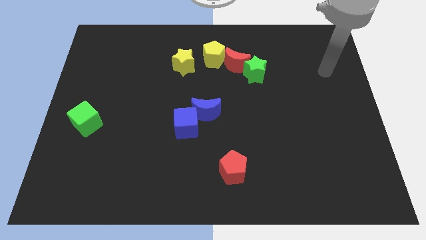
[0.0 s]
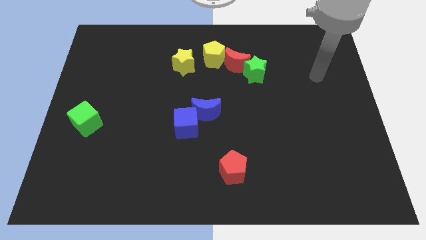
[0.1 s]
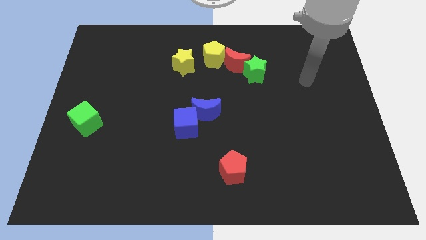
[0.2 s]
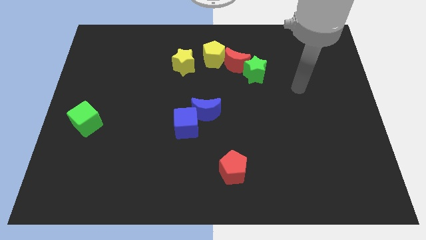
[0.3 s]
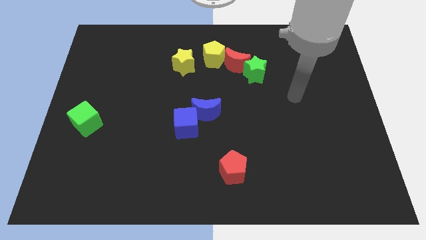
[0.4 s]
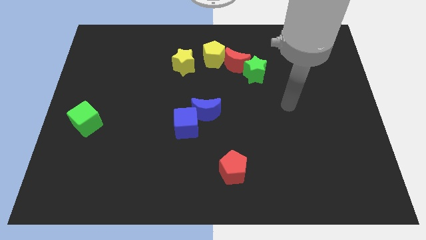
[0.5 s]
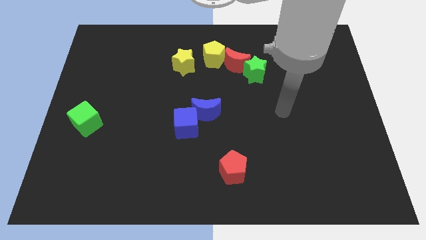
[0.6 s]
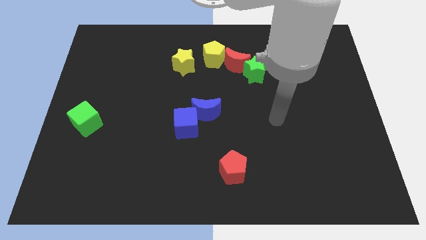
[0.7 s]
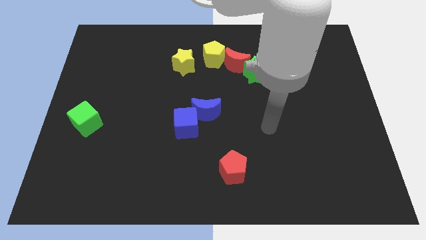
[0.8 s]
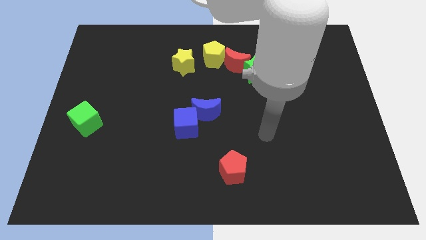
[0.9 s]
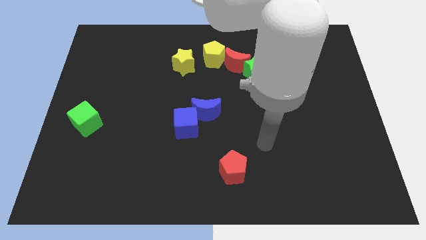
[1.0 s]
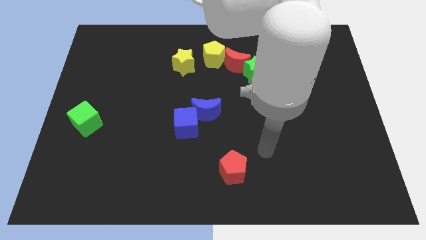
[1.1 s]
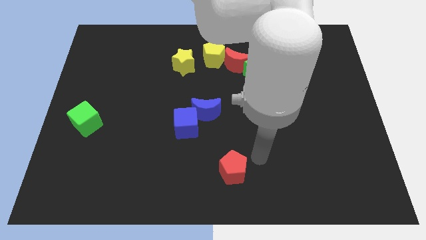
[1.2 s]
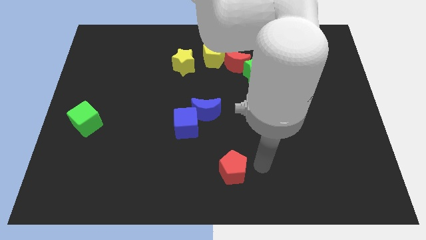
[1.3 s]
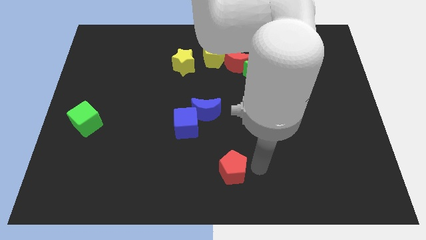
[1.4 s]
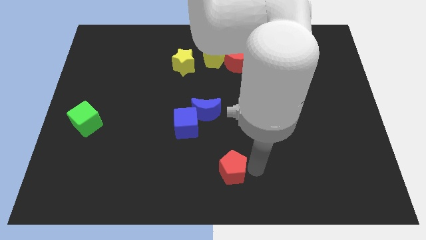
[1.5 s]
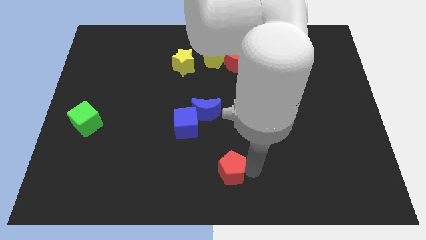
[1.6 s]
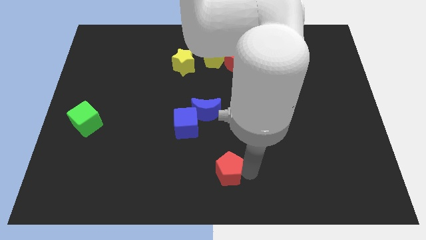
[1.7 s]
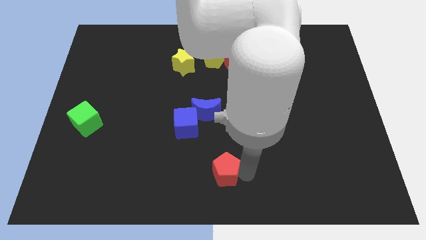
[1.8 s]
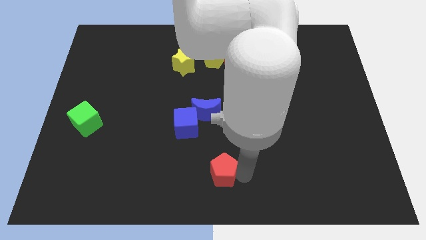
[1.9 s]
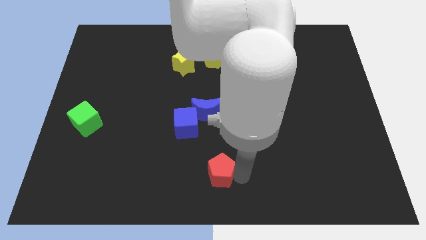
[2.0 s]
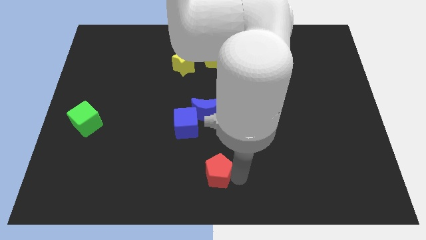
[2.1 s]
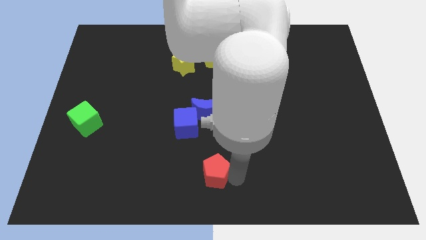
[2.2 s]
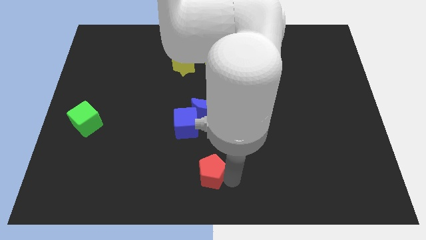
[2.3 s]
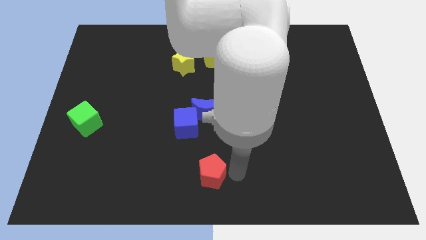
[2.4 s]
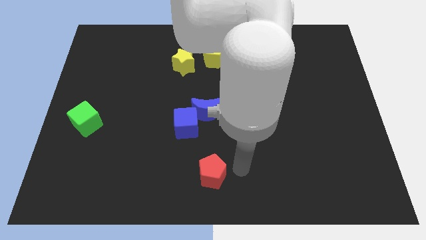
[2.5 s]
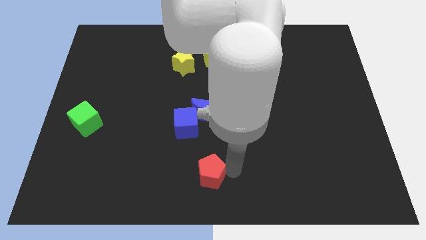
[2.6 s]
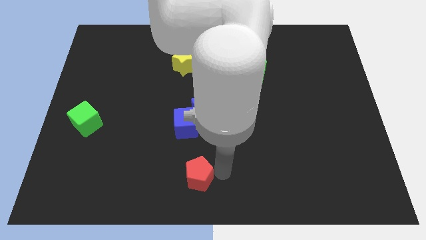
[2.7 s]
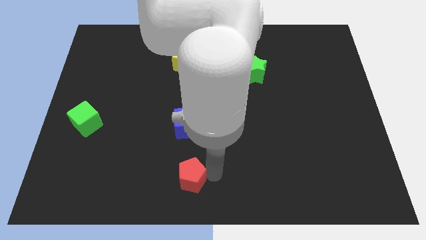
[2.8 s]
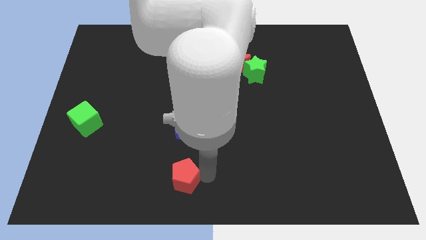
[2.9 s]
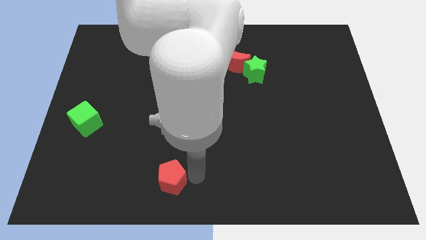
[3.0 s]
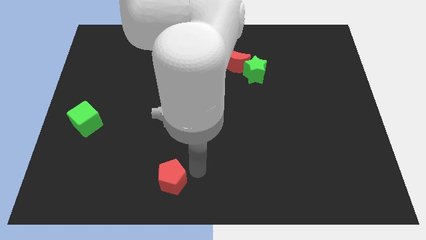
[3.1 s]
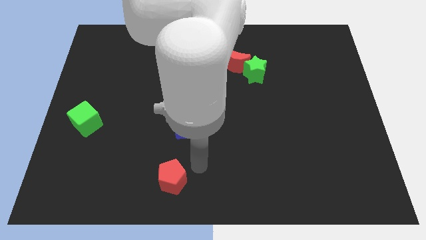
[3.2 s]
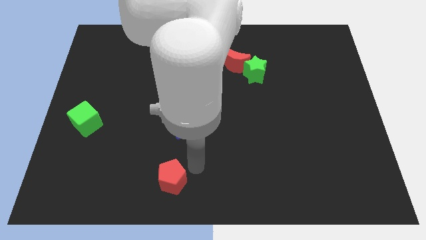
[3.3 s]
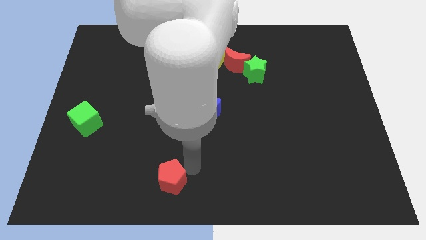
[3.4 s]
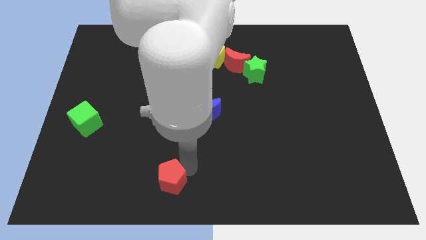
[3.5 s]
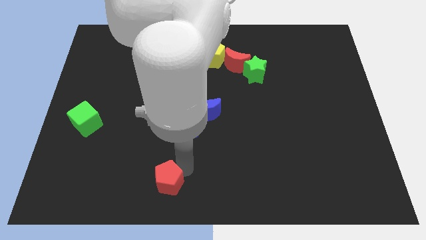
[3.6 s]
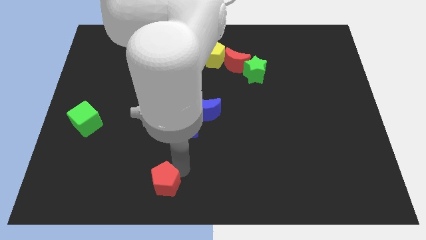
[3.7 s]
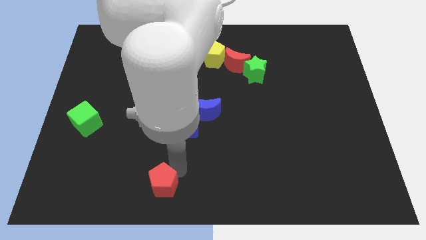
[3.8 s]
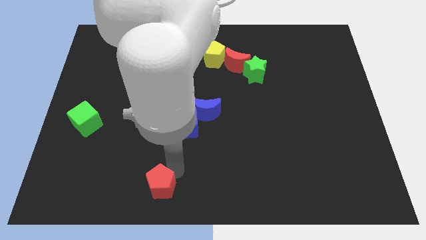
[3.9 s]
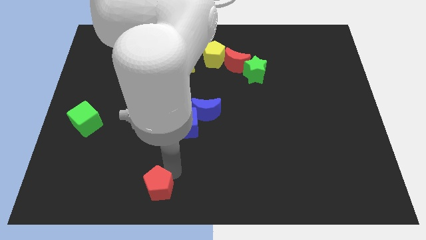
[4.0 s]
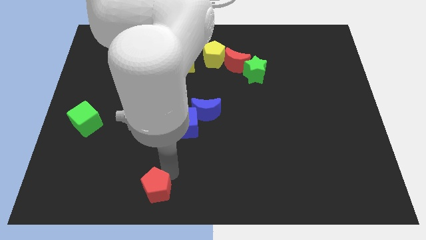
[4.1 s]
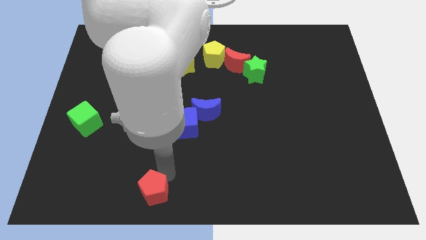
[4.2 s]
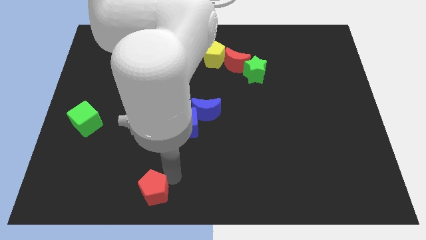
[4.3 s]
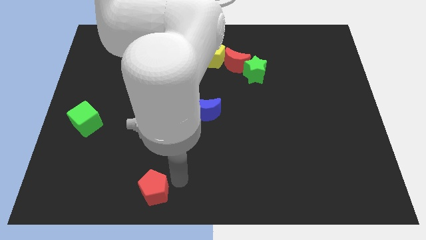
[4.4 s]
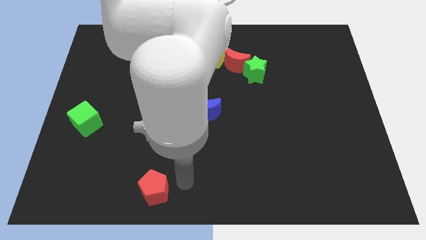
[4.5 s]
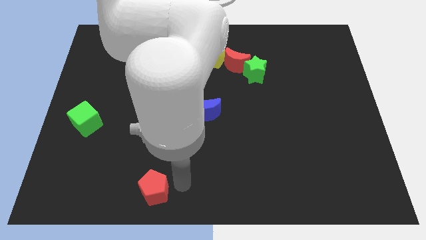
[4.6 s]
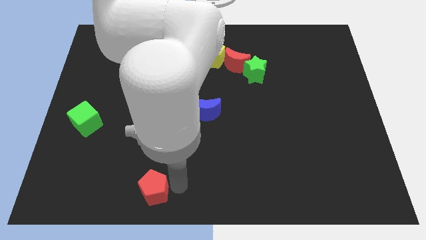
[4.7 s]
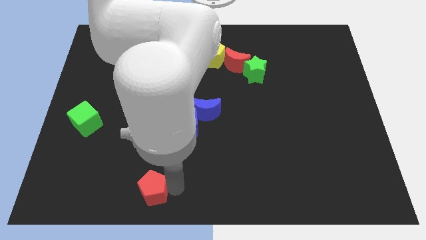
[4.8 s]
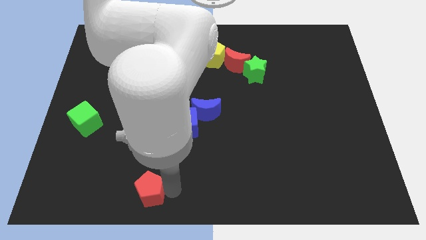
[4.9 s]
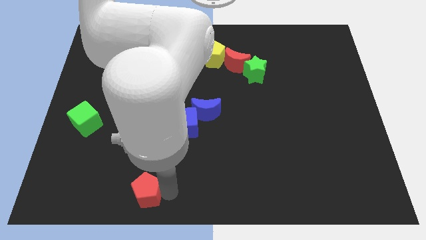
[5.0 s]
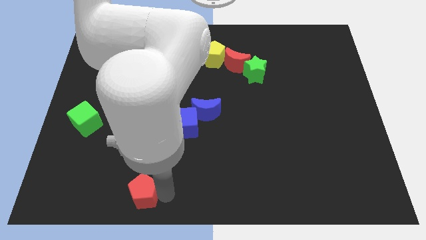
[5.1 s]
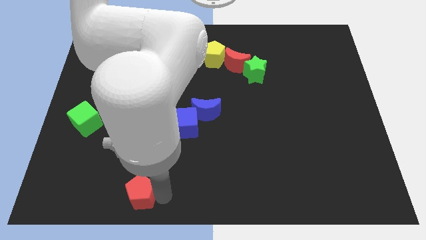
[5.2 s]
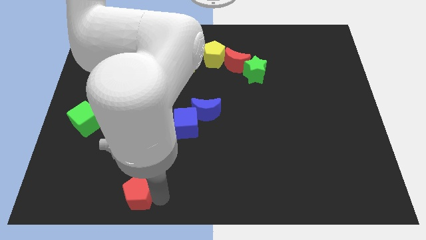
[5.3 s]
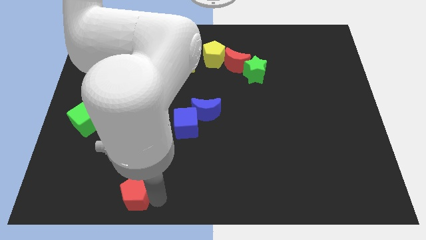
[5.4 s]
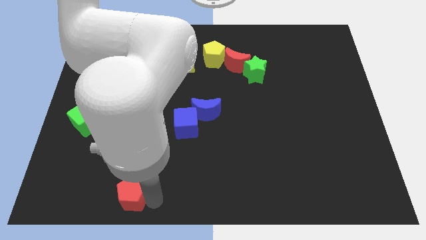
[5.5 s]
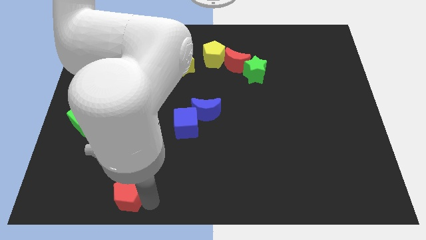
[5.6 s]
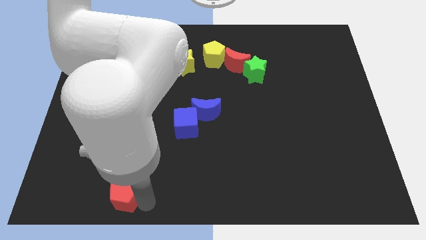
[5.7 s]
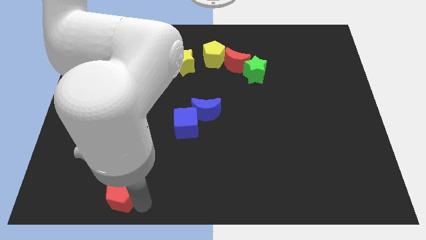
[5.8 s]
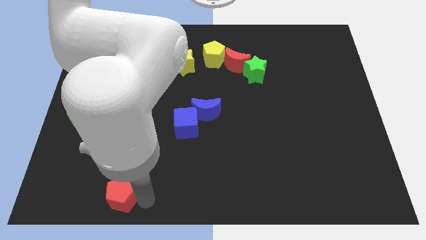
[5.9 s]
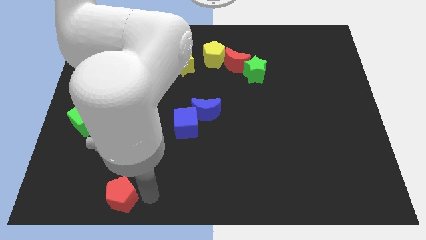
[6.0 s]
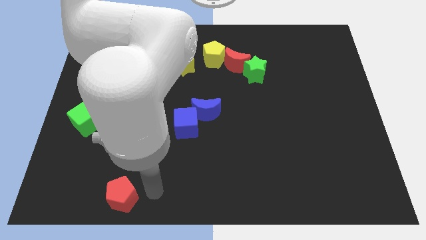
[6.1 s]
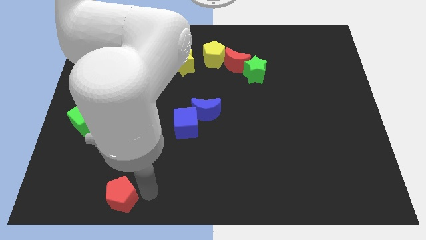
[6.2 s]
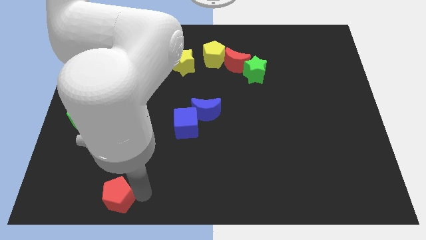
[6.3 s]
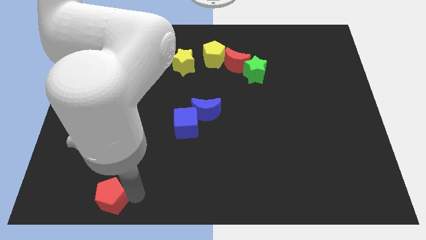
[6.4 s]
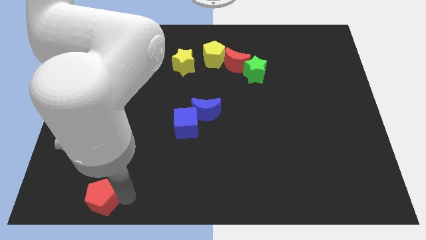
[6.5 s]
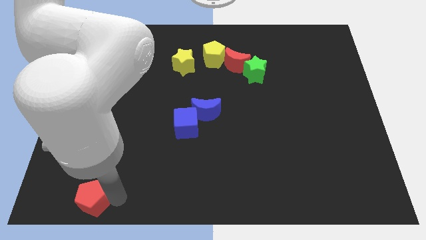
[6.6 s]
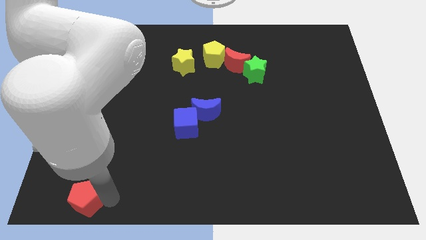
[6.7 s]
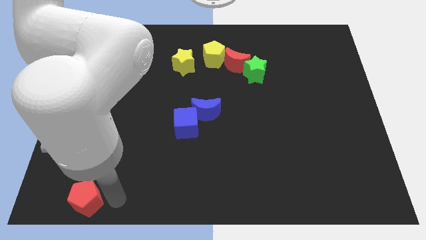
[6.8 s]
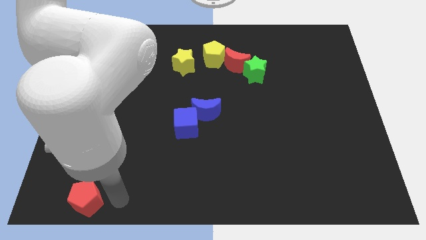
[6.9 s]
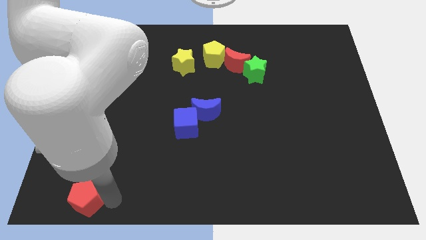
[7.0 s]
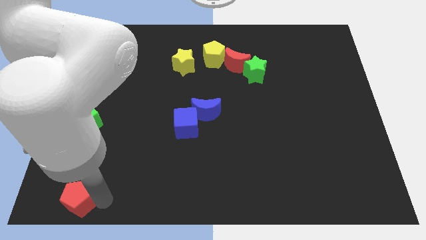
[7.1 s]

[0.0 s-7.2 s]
push the red pentagon to the lower left corner
